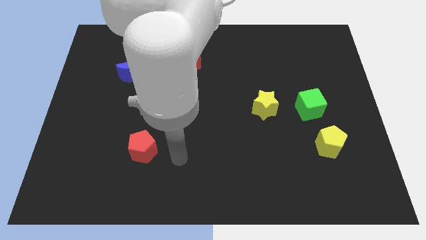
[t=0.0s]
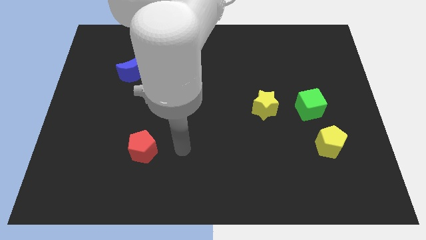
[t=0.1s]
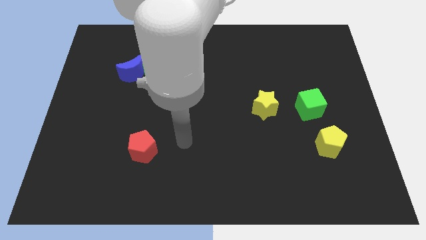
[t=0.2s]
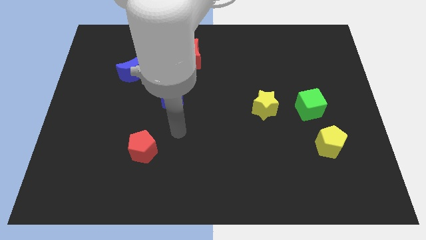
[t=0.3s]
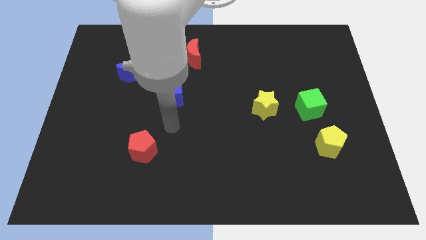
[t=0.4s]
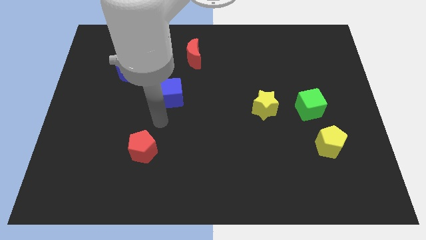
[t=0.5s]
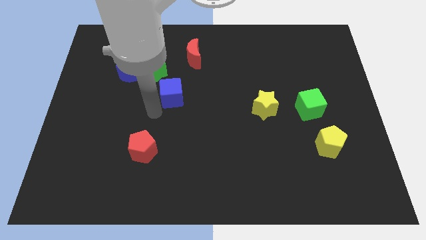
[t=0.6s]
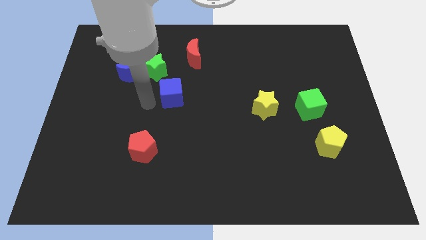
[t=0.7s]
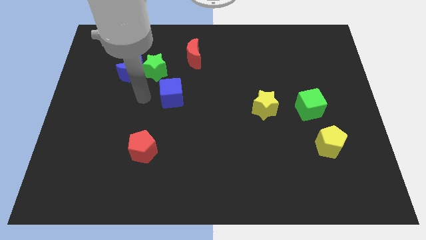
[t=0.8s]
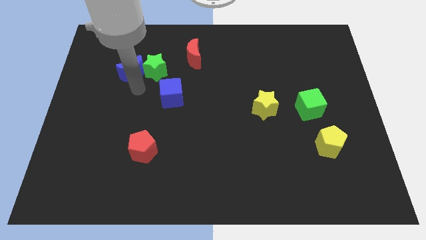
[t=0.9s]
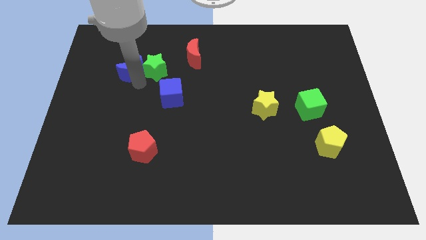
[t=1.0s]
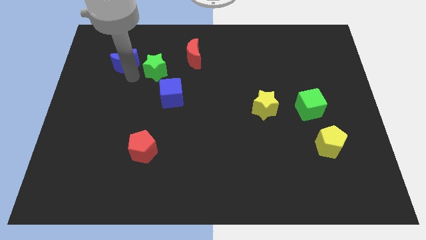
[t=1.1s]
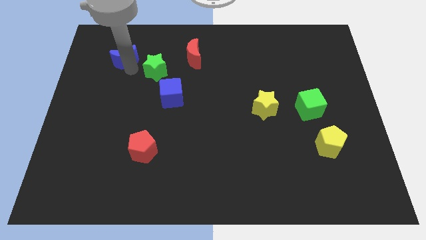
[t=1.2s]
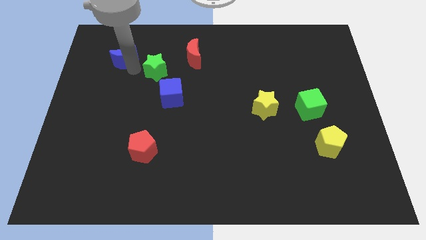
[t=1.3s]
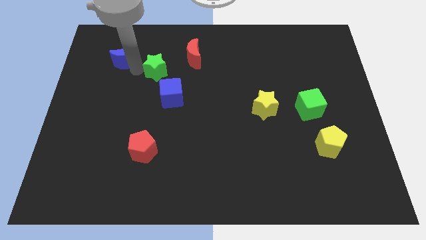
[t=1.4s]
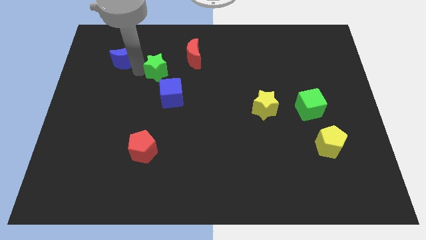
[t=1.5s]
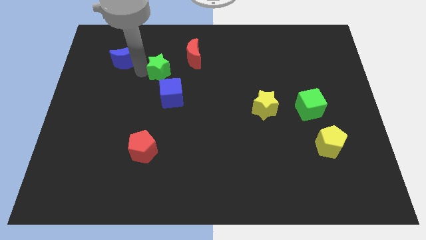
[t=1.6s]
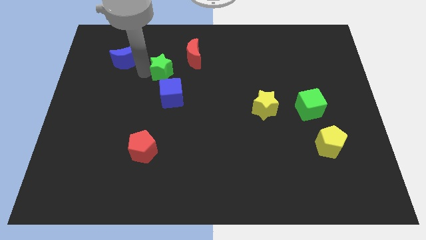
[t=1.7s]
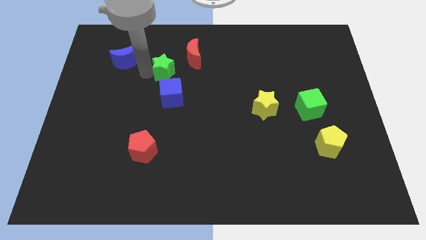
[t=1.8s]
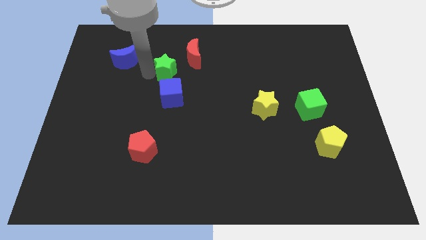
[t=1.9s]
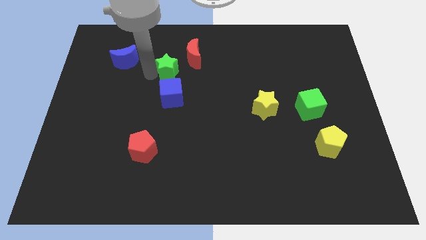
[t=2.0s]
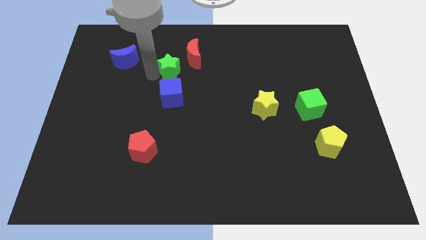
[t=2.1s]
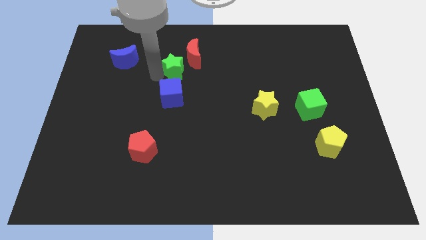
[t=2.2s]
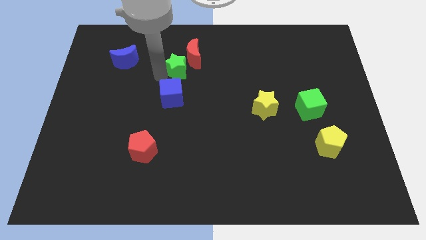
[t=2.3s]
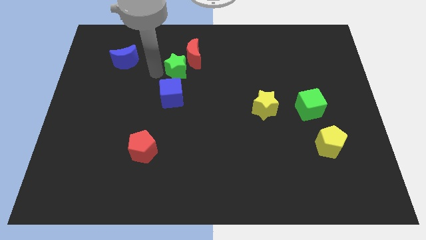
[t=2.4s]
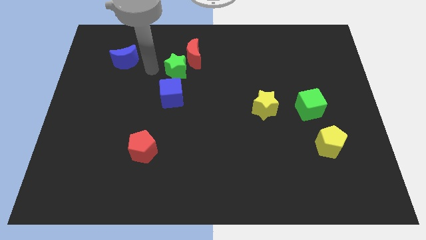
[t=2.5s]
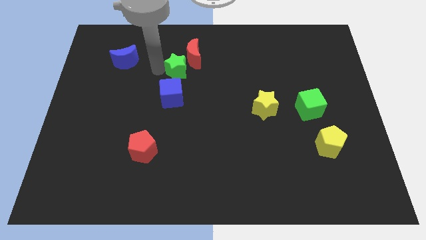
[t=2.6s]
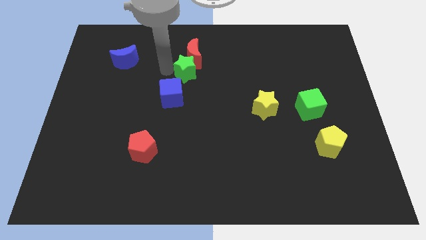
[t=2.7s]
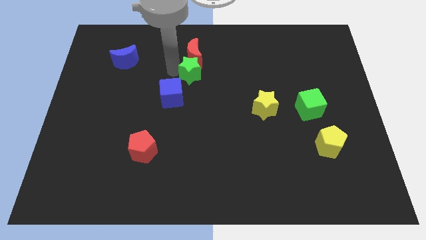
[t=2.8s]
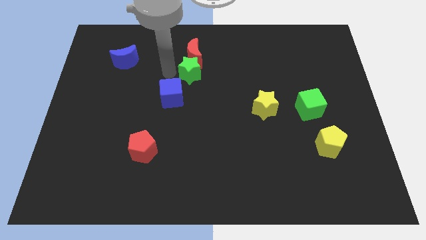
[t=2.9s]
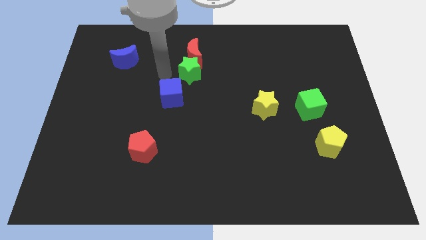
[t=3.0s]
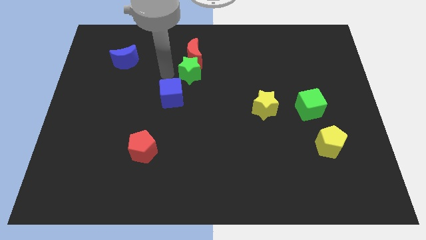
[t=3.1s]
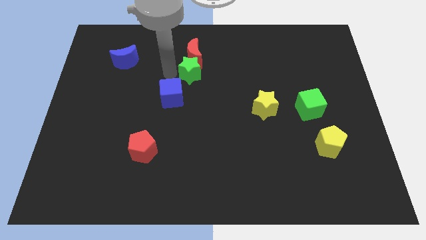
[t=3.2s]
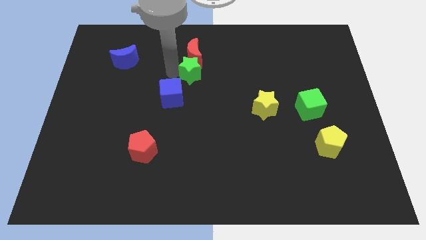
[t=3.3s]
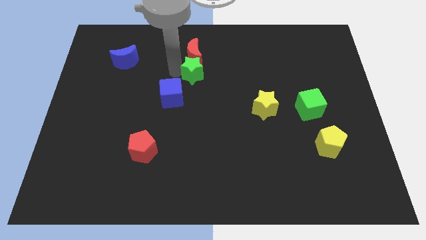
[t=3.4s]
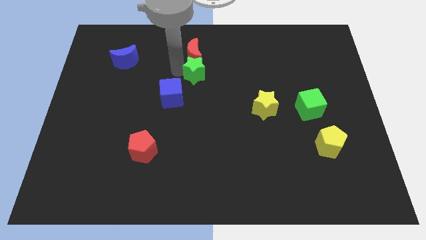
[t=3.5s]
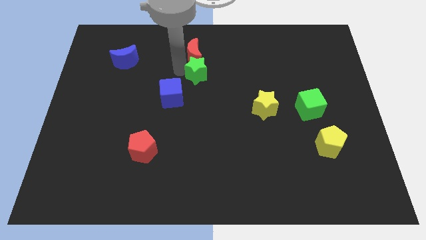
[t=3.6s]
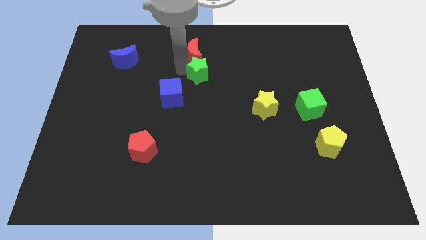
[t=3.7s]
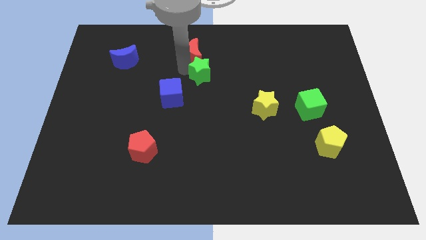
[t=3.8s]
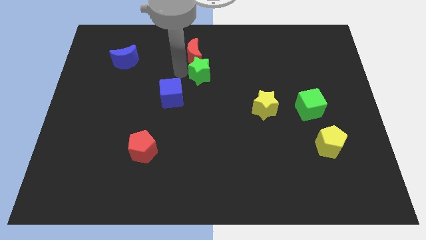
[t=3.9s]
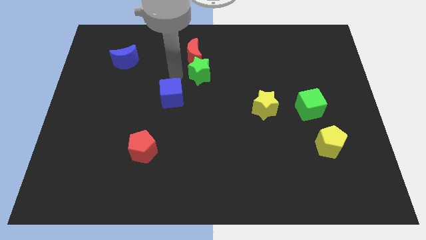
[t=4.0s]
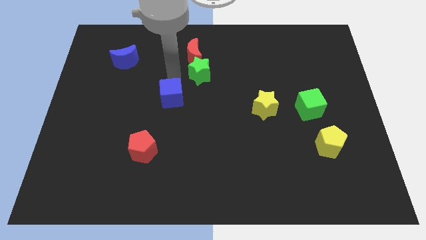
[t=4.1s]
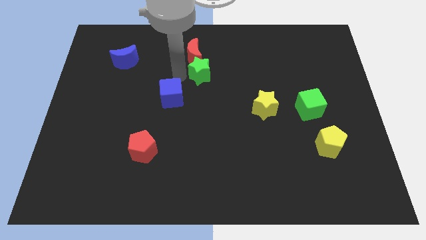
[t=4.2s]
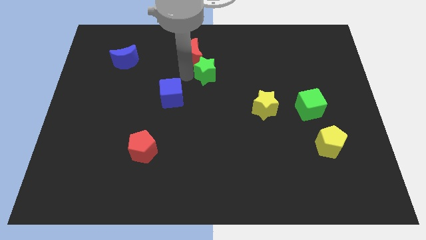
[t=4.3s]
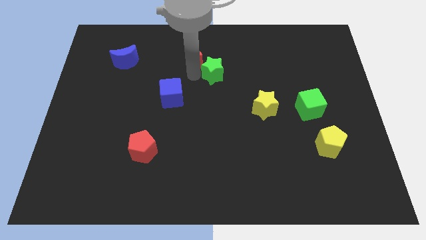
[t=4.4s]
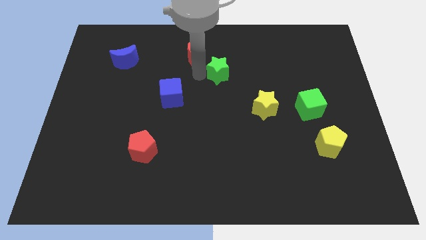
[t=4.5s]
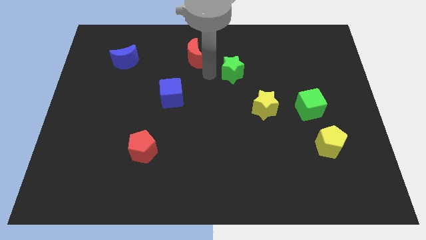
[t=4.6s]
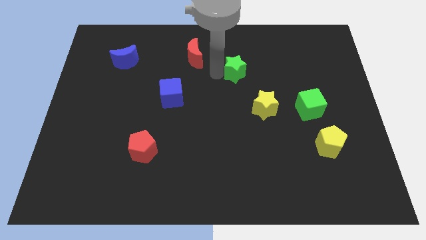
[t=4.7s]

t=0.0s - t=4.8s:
move the green star right

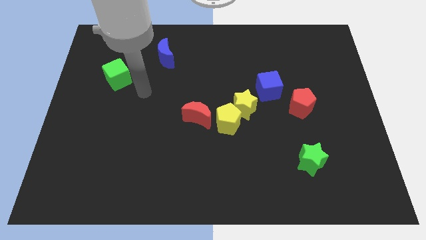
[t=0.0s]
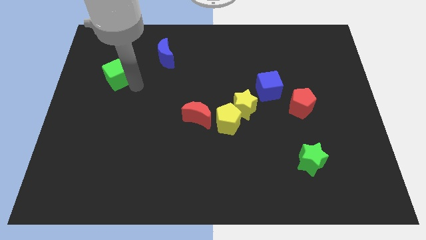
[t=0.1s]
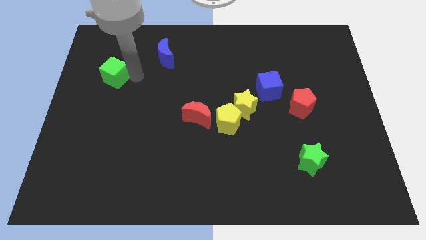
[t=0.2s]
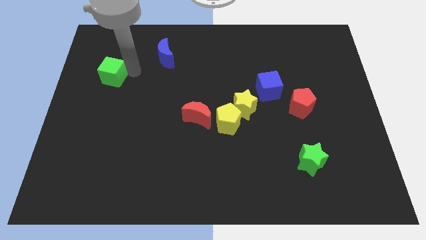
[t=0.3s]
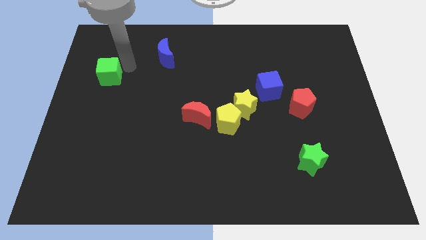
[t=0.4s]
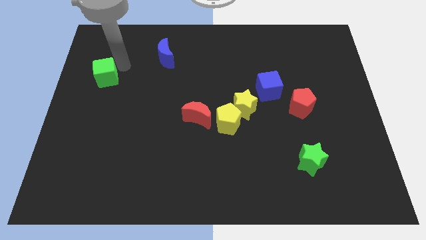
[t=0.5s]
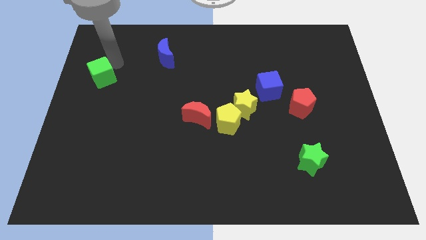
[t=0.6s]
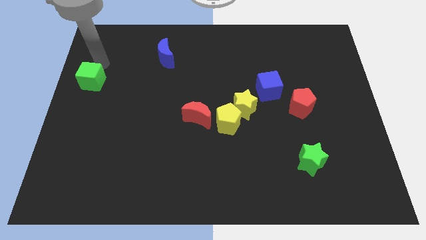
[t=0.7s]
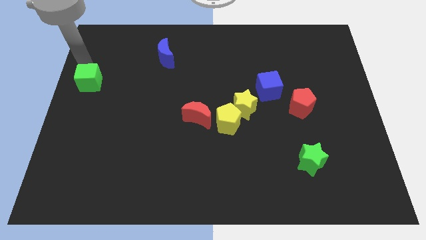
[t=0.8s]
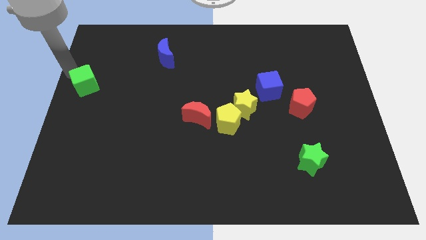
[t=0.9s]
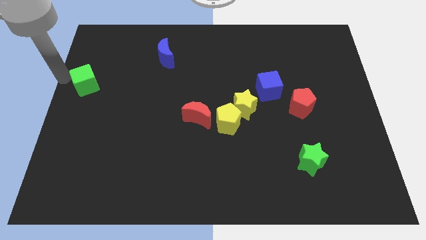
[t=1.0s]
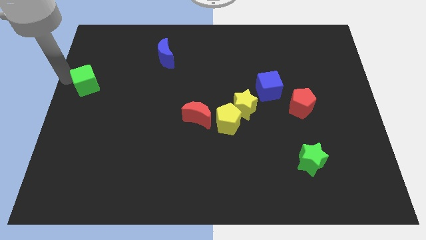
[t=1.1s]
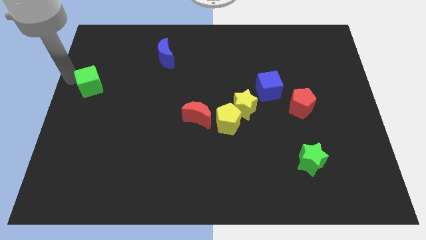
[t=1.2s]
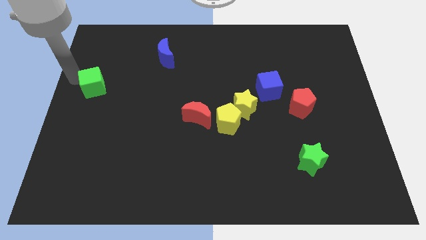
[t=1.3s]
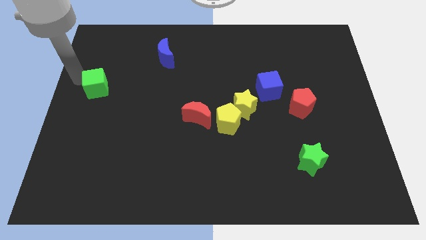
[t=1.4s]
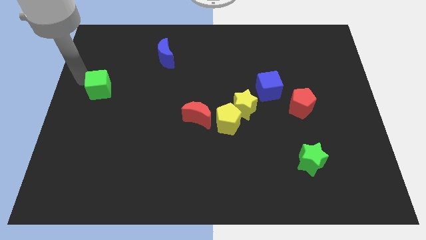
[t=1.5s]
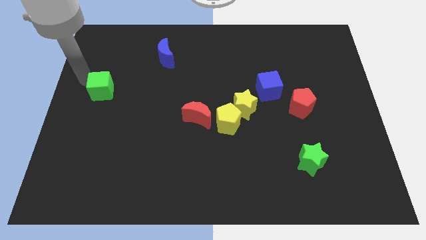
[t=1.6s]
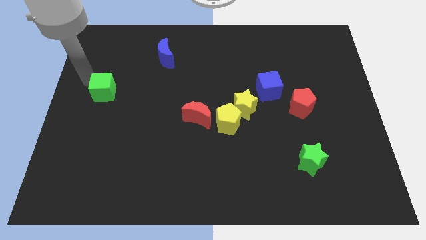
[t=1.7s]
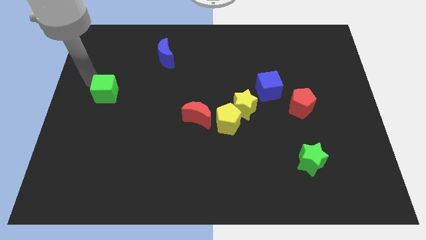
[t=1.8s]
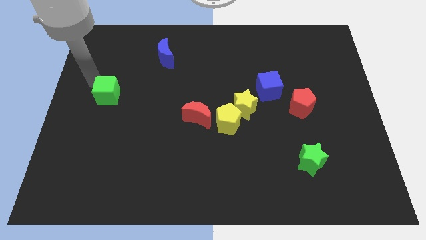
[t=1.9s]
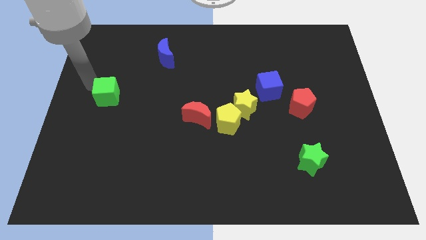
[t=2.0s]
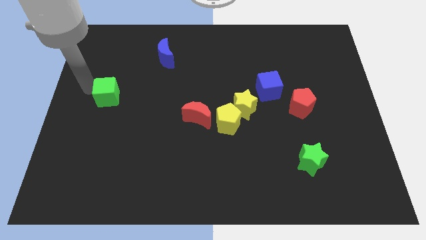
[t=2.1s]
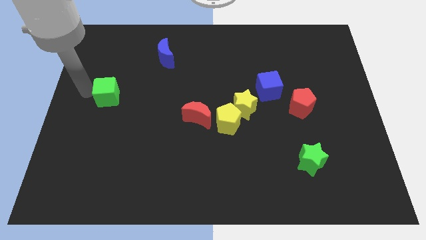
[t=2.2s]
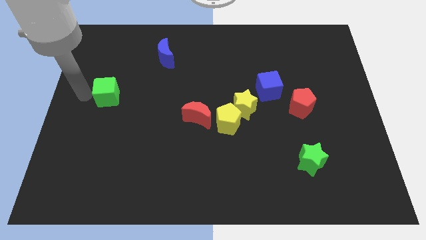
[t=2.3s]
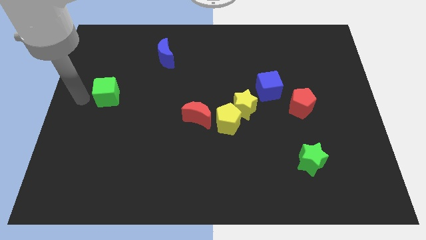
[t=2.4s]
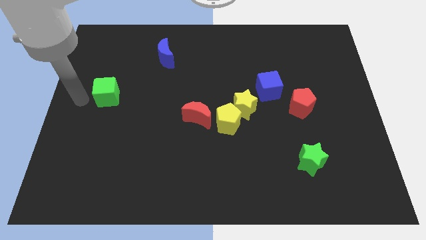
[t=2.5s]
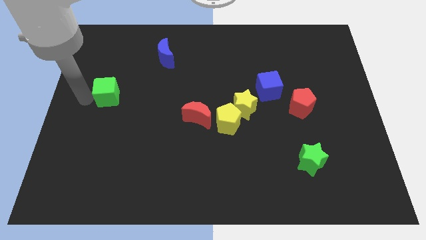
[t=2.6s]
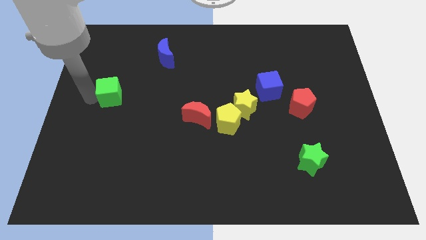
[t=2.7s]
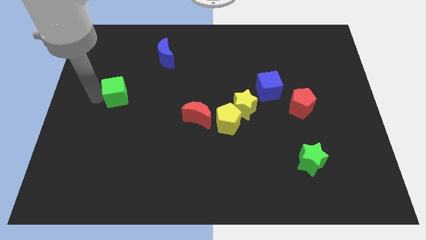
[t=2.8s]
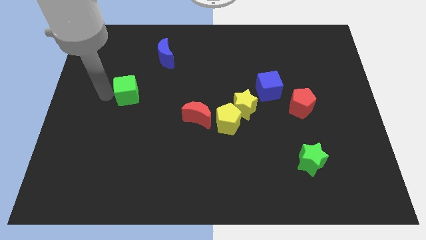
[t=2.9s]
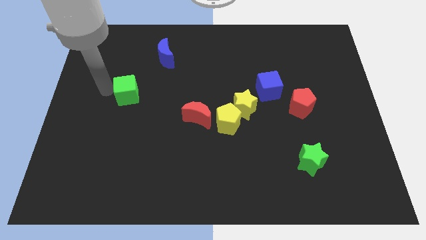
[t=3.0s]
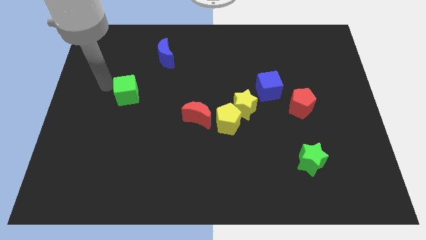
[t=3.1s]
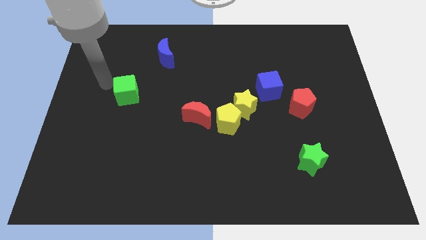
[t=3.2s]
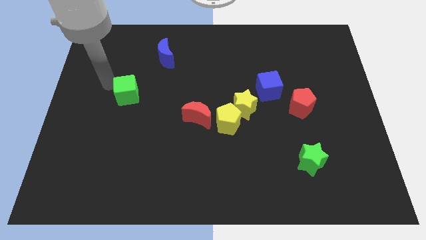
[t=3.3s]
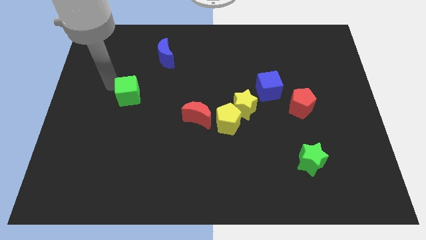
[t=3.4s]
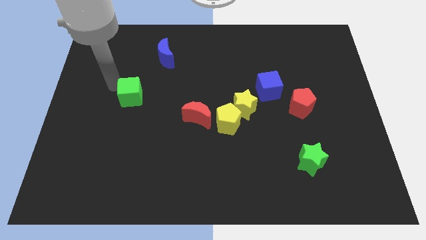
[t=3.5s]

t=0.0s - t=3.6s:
move the green cube slightly diagonally downwards and to the right
